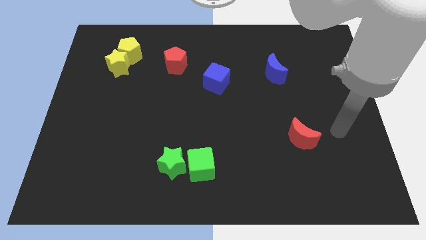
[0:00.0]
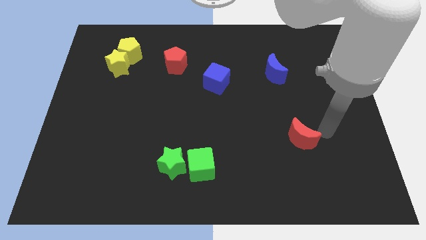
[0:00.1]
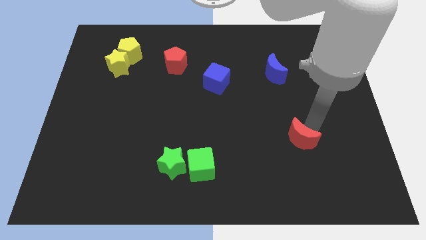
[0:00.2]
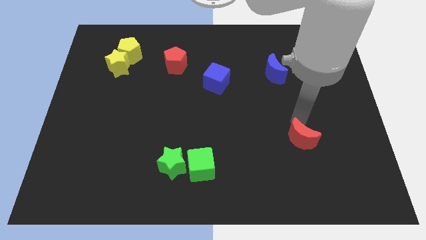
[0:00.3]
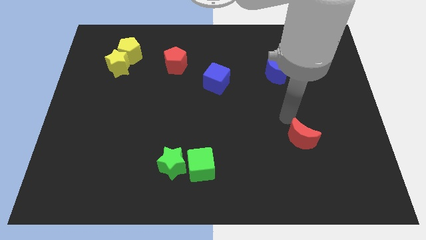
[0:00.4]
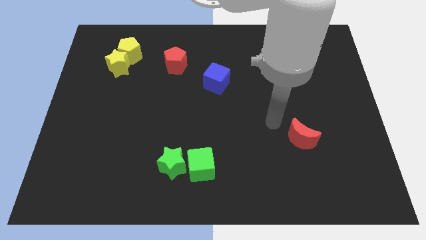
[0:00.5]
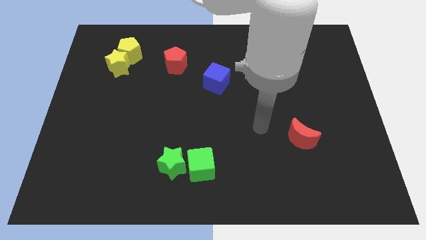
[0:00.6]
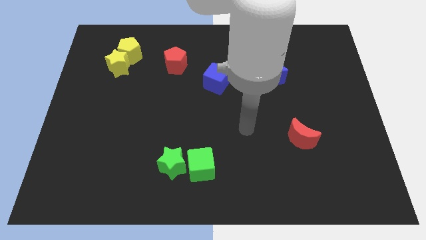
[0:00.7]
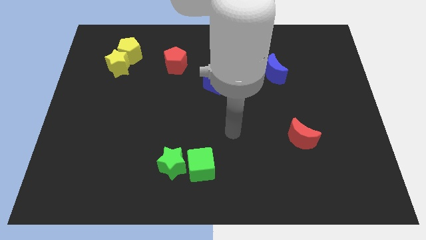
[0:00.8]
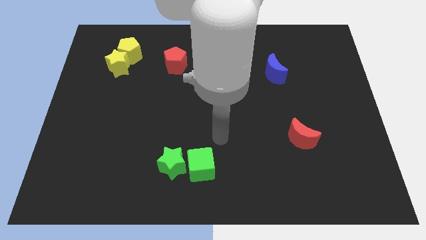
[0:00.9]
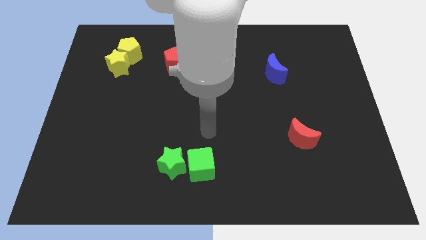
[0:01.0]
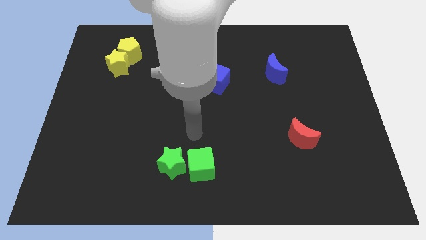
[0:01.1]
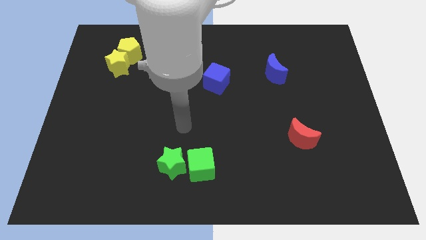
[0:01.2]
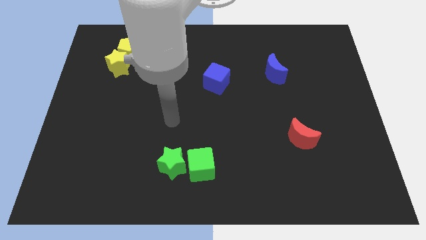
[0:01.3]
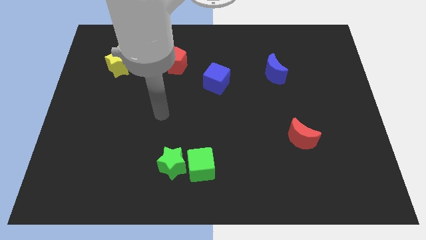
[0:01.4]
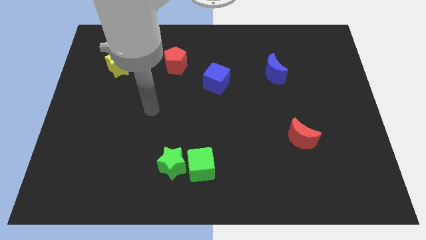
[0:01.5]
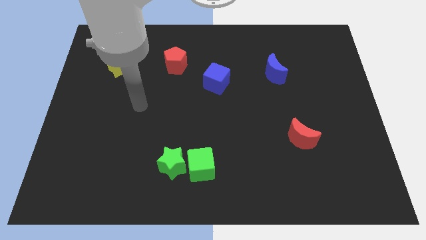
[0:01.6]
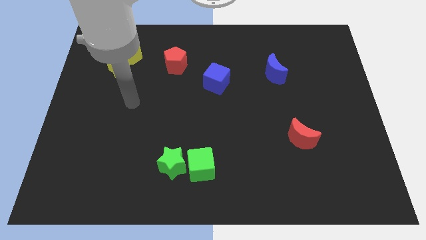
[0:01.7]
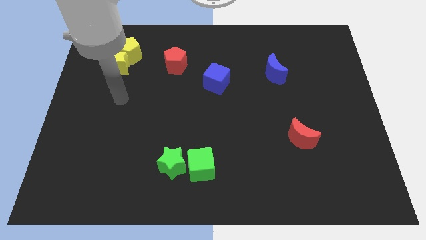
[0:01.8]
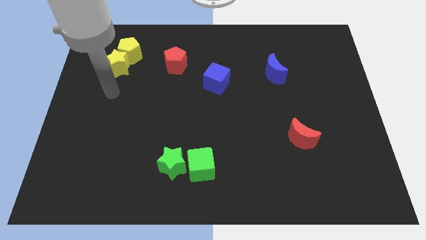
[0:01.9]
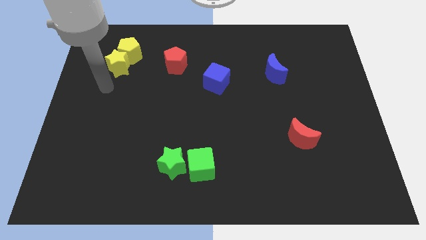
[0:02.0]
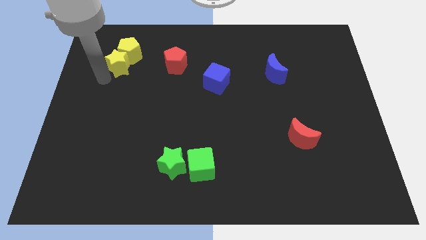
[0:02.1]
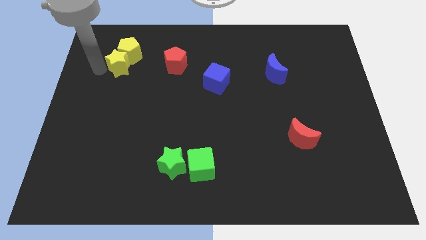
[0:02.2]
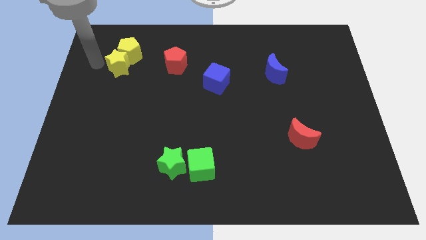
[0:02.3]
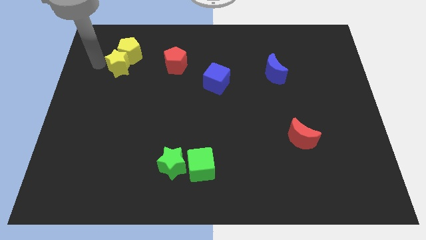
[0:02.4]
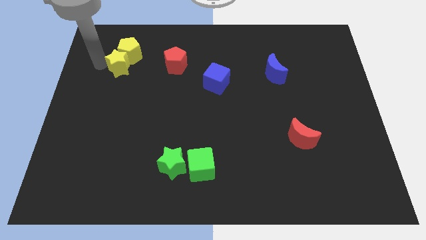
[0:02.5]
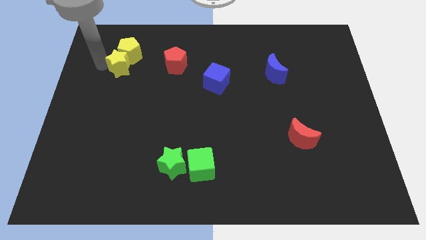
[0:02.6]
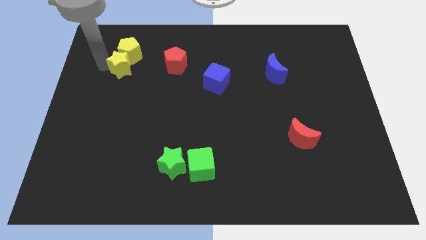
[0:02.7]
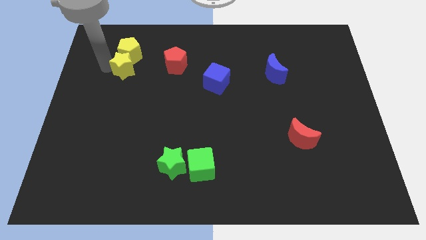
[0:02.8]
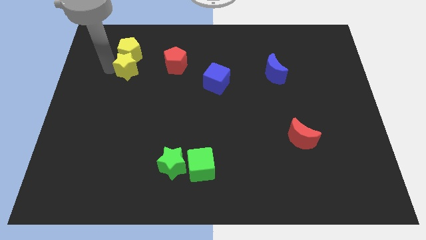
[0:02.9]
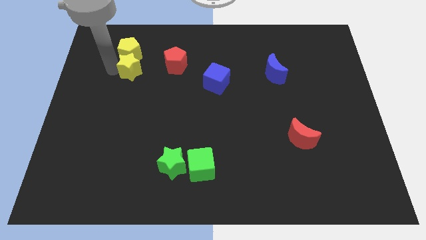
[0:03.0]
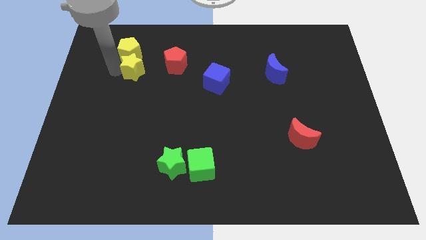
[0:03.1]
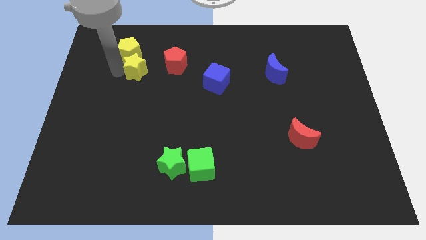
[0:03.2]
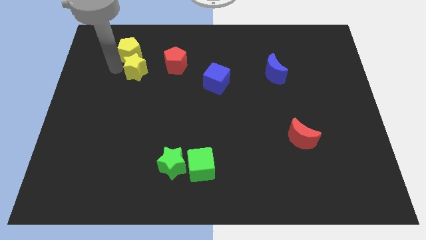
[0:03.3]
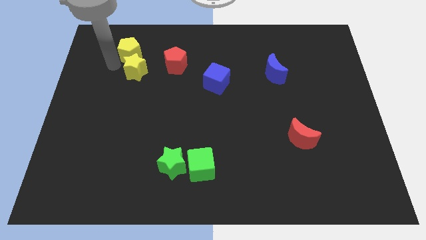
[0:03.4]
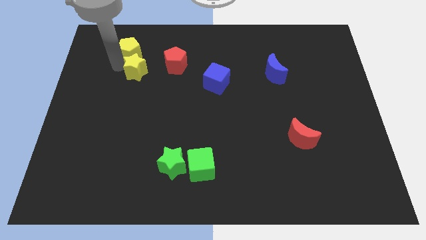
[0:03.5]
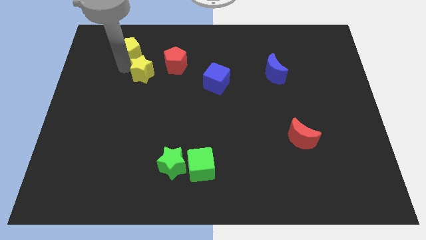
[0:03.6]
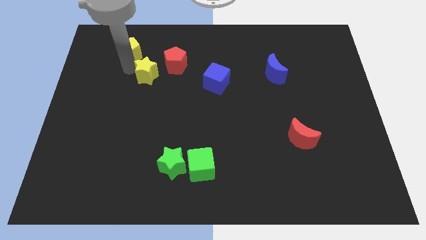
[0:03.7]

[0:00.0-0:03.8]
slightly slide the yellow star right

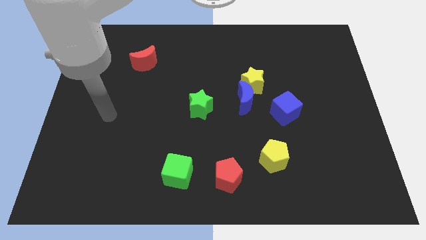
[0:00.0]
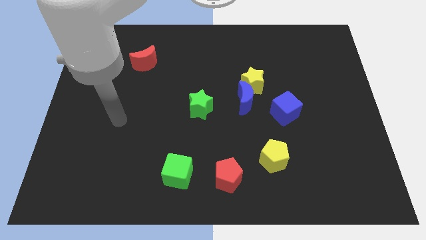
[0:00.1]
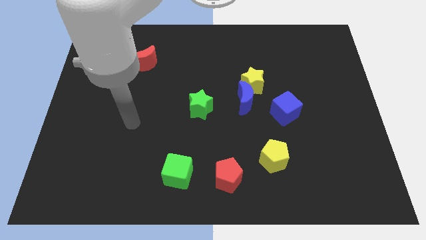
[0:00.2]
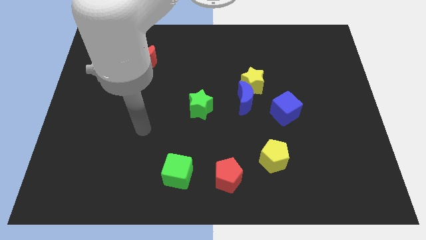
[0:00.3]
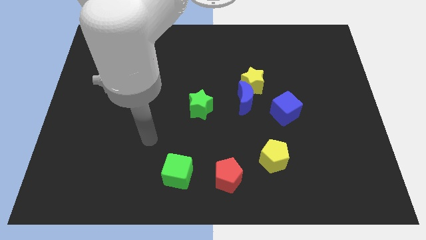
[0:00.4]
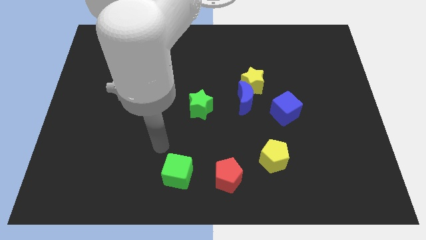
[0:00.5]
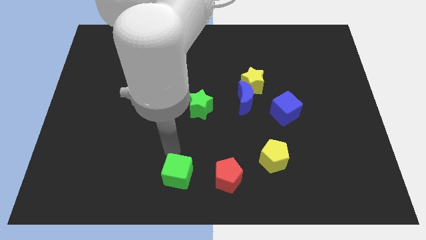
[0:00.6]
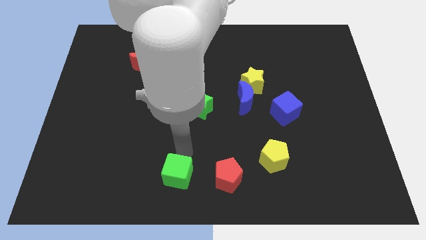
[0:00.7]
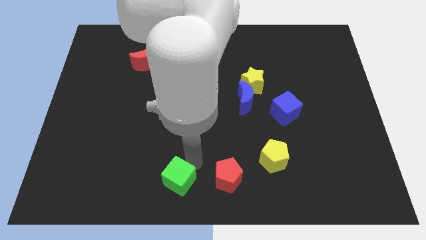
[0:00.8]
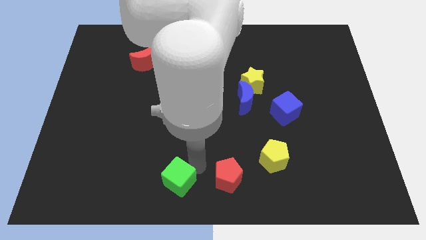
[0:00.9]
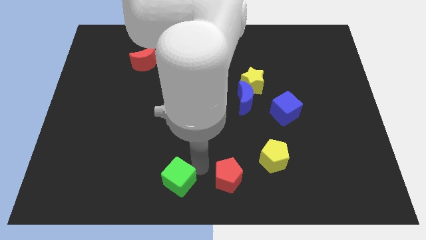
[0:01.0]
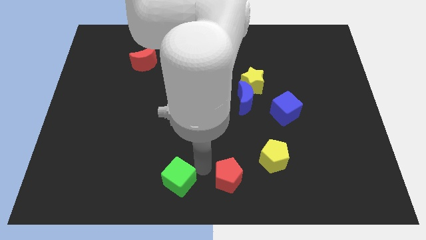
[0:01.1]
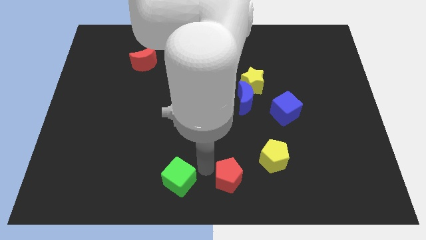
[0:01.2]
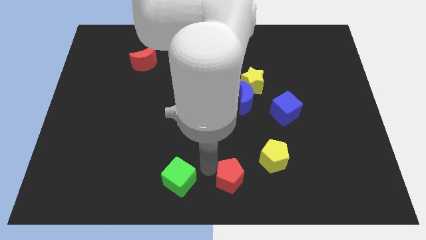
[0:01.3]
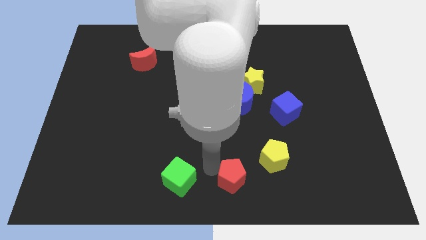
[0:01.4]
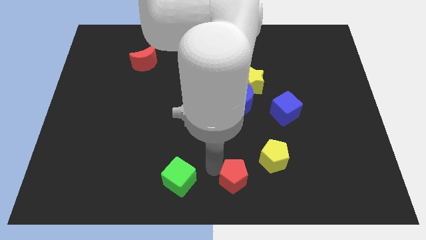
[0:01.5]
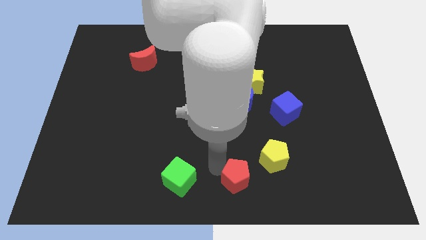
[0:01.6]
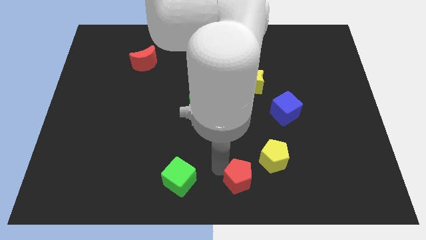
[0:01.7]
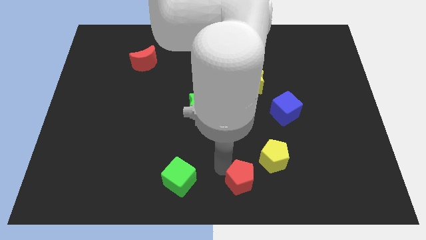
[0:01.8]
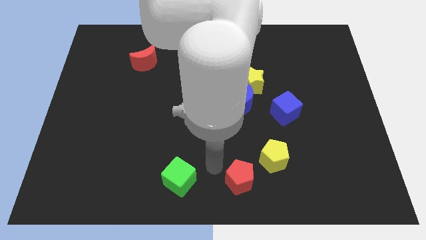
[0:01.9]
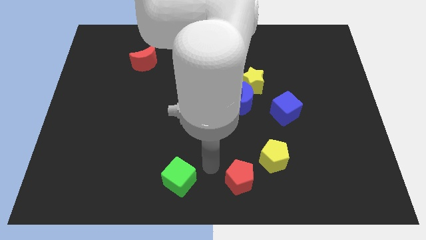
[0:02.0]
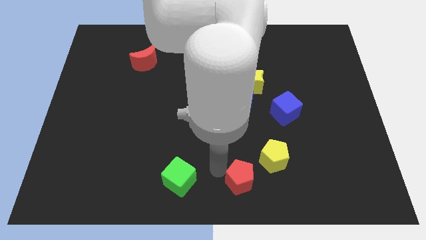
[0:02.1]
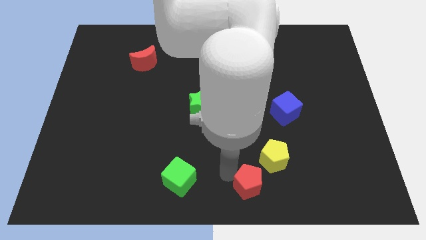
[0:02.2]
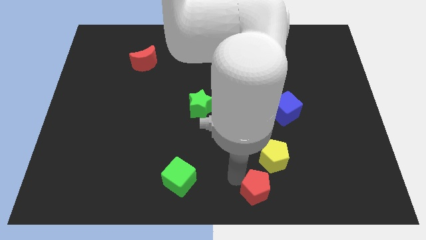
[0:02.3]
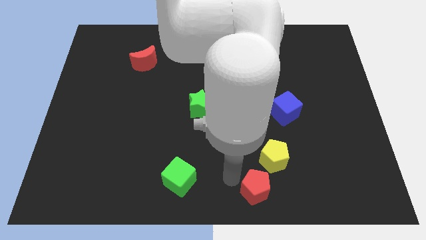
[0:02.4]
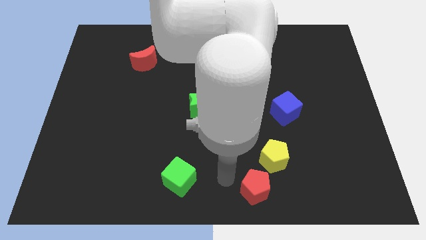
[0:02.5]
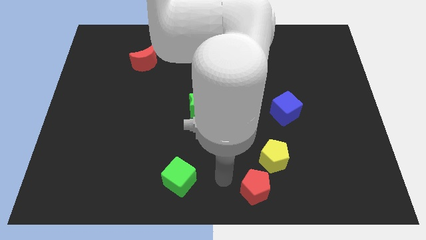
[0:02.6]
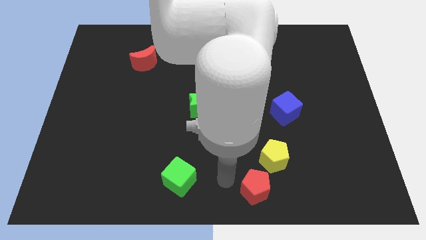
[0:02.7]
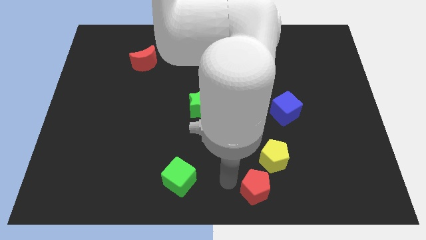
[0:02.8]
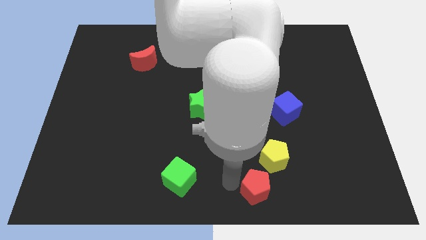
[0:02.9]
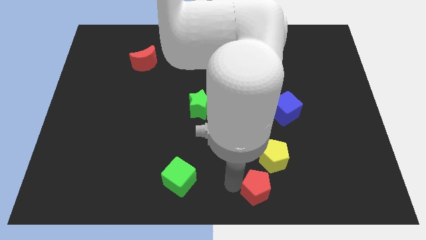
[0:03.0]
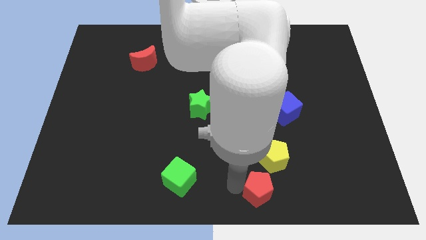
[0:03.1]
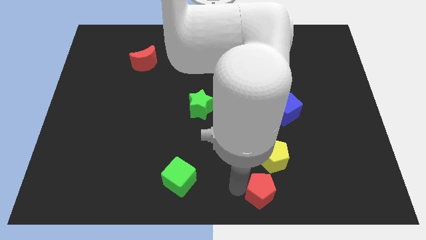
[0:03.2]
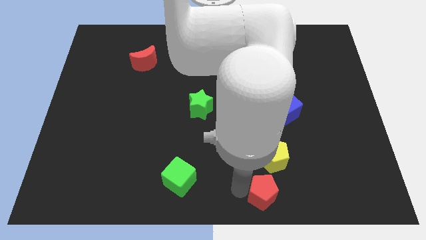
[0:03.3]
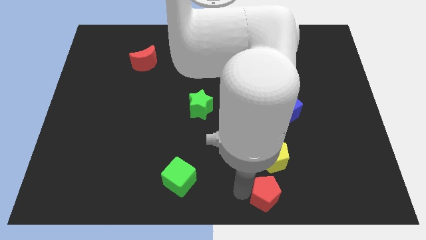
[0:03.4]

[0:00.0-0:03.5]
move the red pentagon to the right slightly

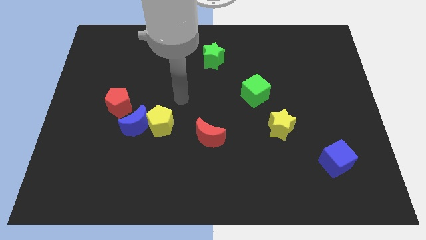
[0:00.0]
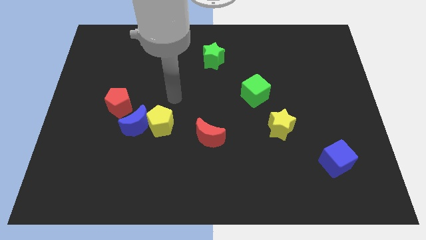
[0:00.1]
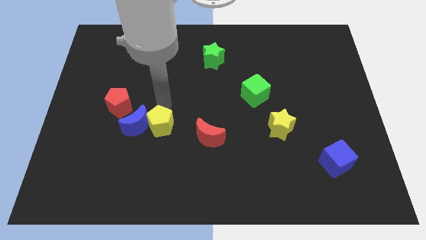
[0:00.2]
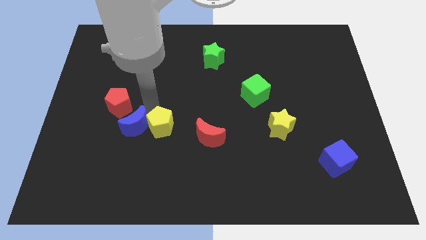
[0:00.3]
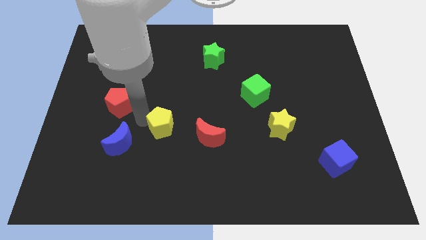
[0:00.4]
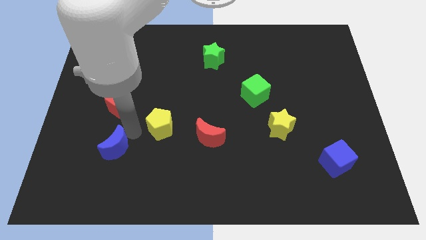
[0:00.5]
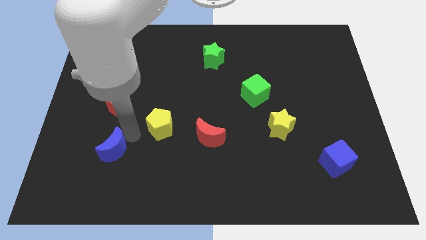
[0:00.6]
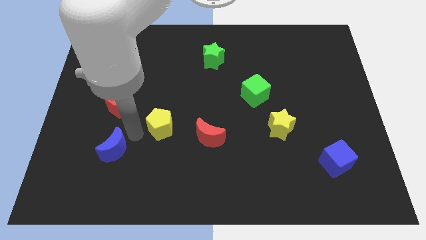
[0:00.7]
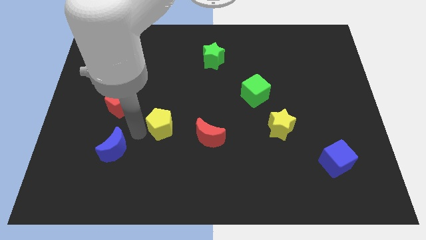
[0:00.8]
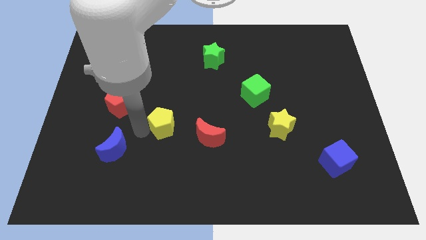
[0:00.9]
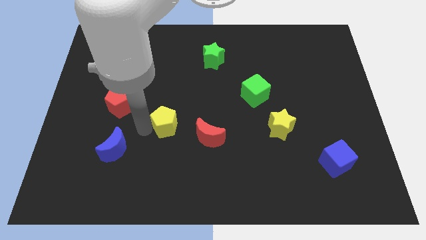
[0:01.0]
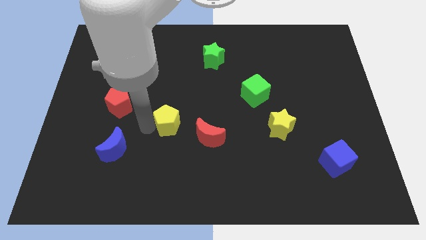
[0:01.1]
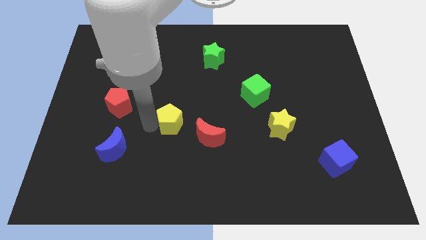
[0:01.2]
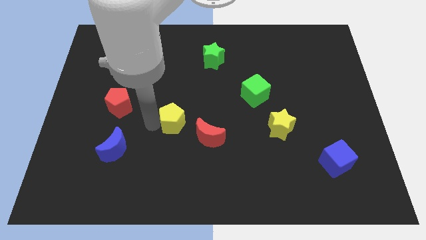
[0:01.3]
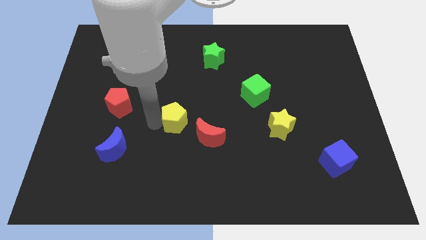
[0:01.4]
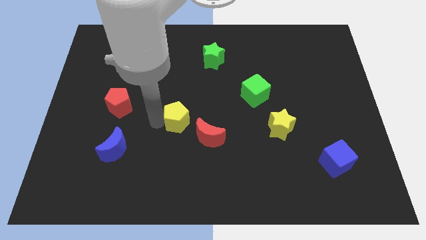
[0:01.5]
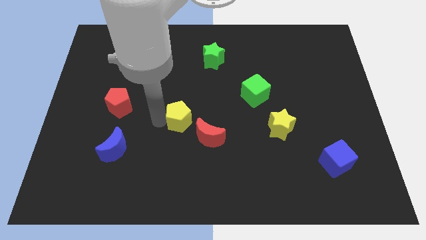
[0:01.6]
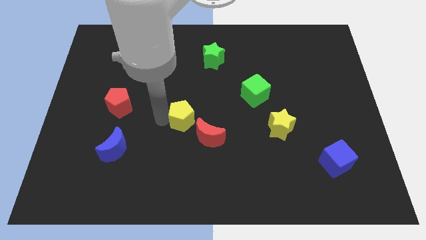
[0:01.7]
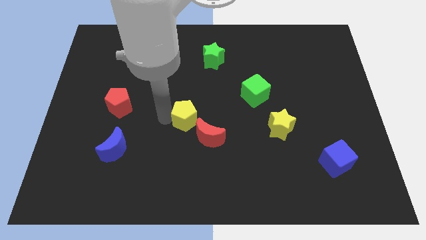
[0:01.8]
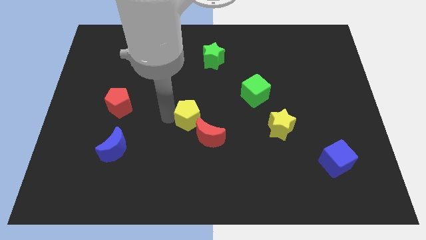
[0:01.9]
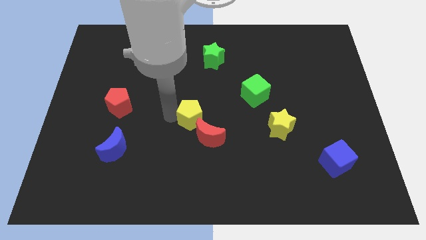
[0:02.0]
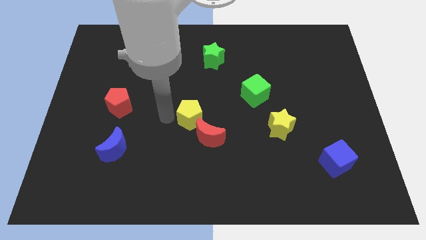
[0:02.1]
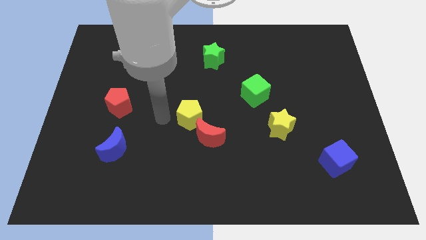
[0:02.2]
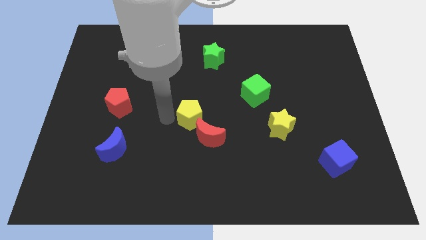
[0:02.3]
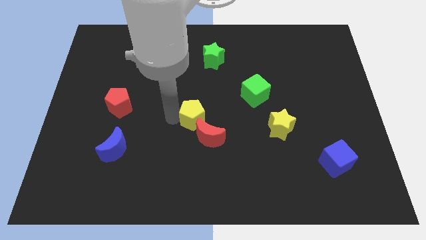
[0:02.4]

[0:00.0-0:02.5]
slightly push the yellow pentagon to the right
